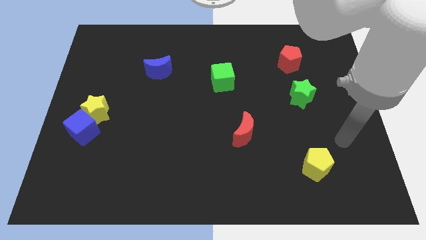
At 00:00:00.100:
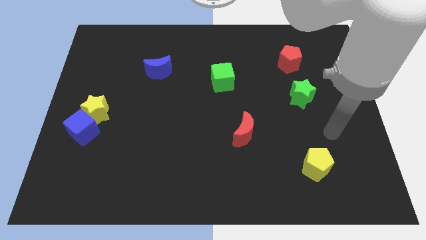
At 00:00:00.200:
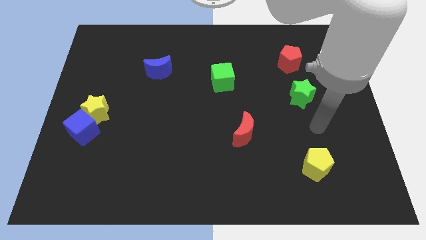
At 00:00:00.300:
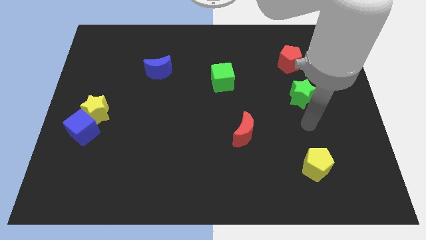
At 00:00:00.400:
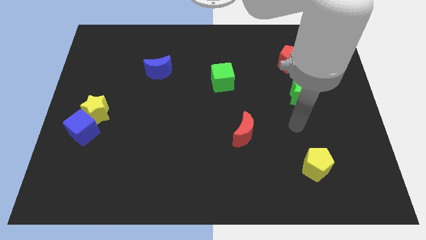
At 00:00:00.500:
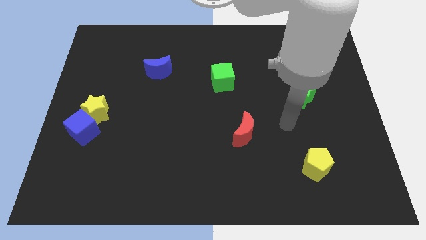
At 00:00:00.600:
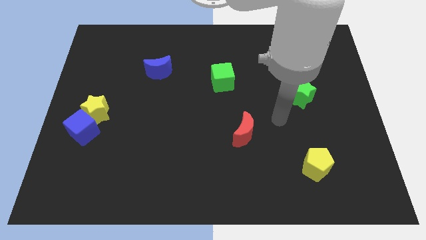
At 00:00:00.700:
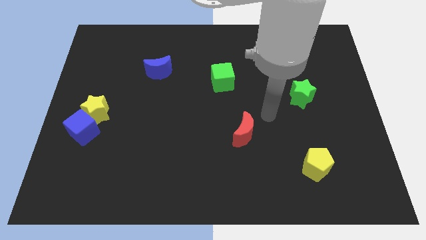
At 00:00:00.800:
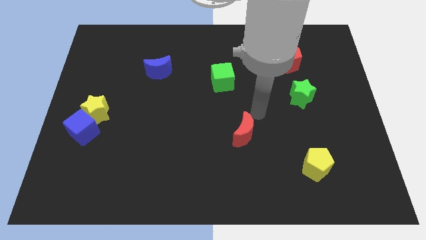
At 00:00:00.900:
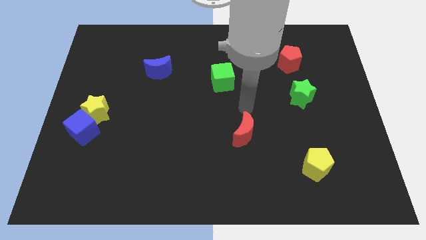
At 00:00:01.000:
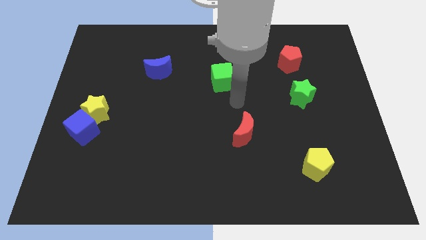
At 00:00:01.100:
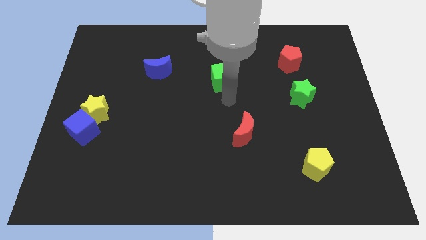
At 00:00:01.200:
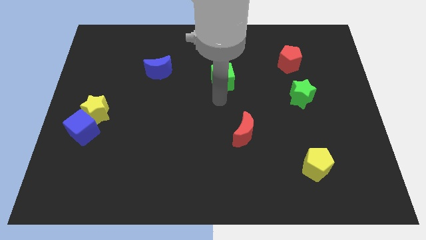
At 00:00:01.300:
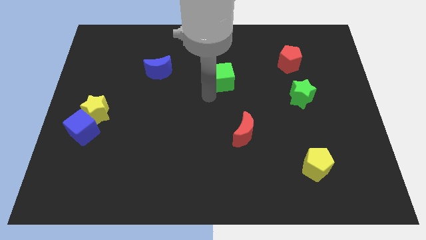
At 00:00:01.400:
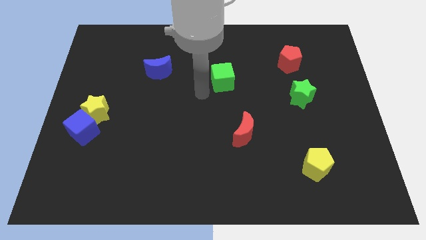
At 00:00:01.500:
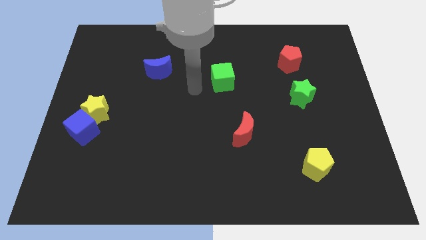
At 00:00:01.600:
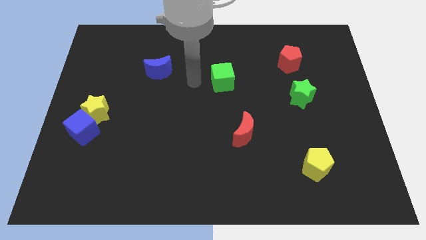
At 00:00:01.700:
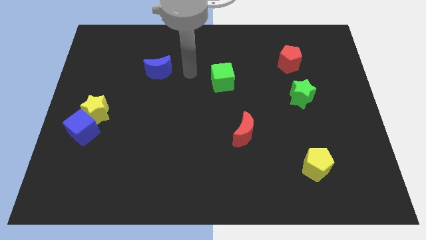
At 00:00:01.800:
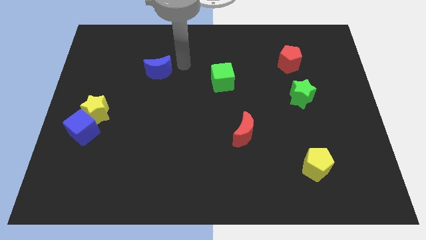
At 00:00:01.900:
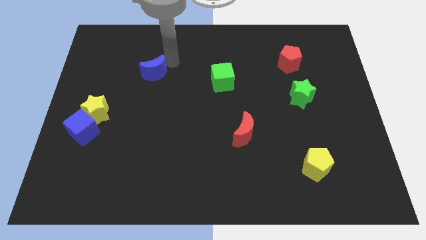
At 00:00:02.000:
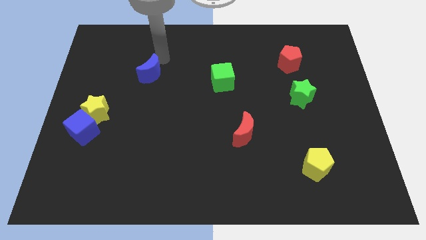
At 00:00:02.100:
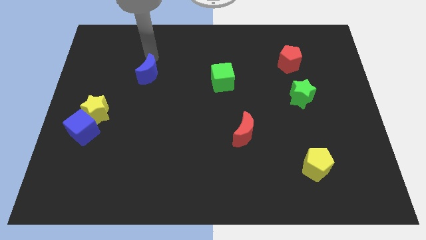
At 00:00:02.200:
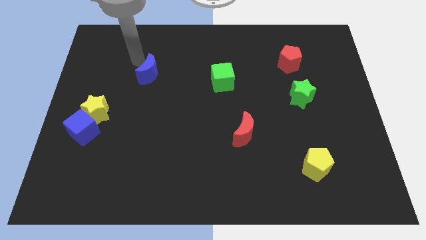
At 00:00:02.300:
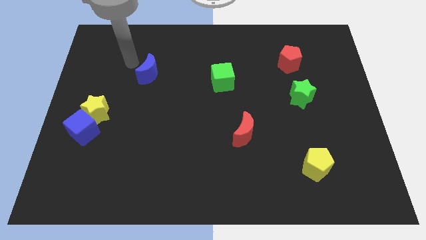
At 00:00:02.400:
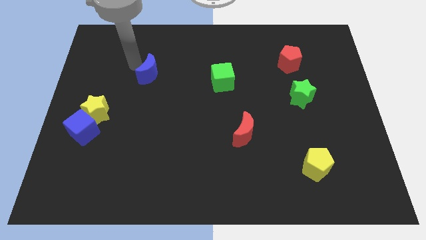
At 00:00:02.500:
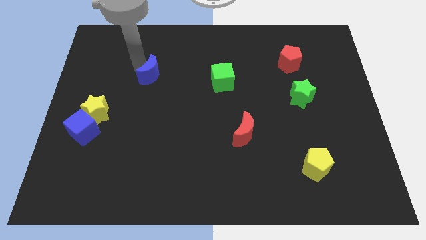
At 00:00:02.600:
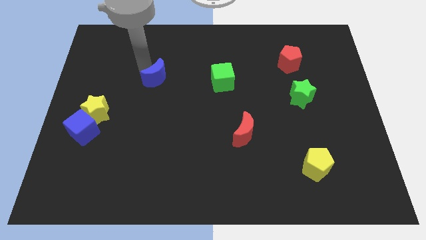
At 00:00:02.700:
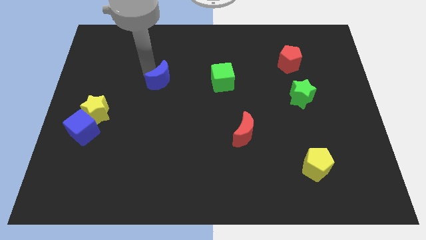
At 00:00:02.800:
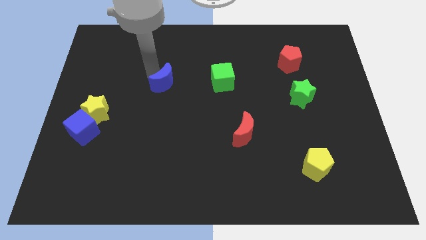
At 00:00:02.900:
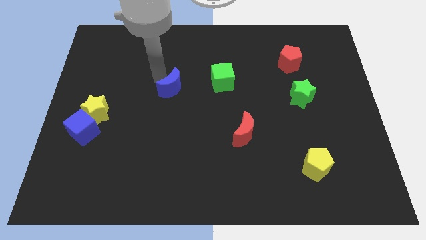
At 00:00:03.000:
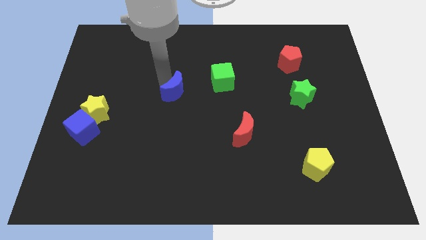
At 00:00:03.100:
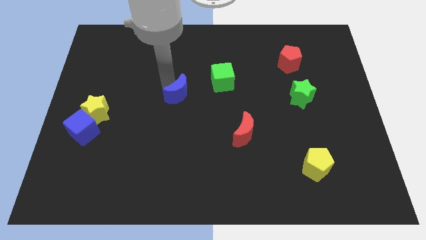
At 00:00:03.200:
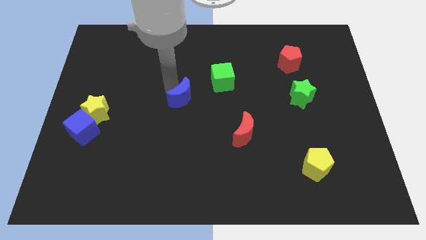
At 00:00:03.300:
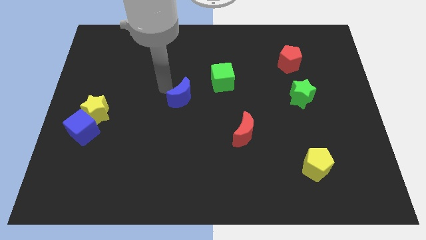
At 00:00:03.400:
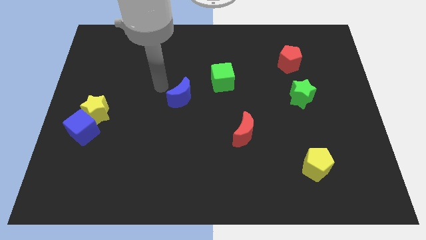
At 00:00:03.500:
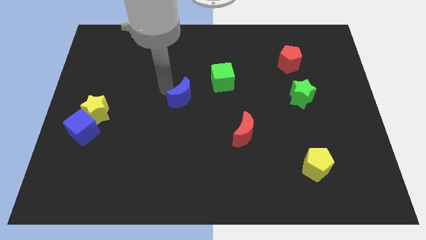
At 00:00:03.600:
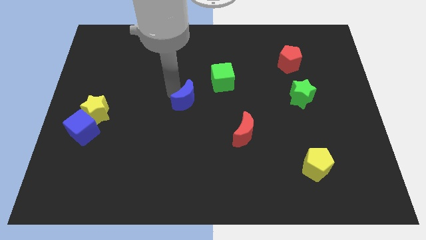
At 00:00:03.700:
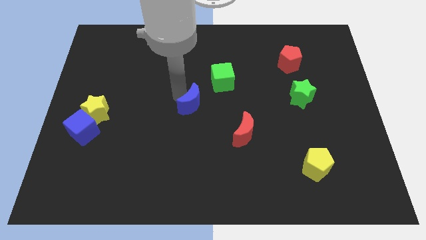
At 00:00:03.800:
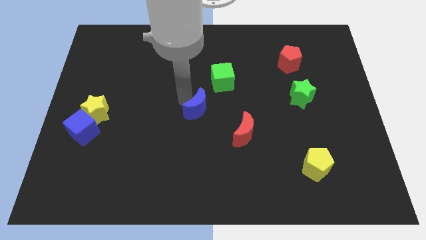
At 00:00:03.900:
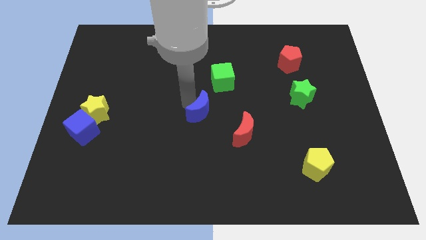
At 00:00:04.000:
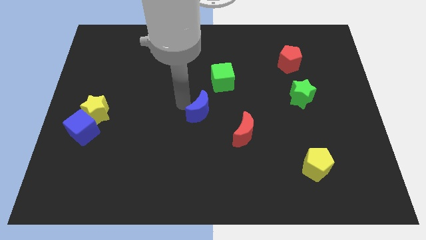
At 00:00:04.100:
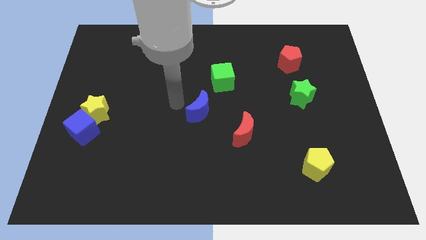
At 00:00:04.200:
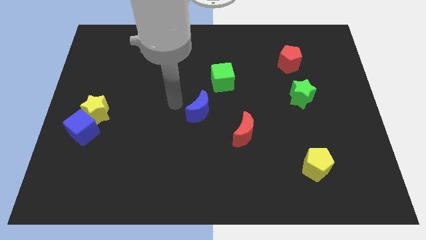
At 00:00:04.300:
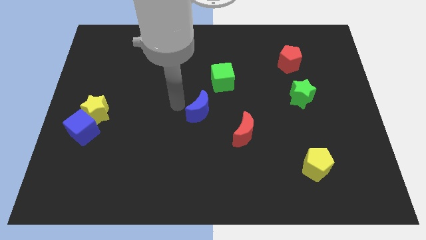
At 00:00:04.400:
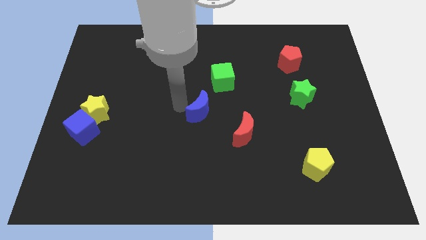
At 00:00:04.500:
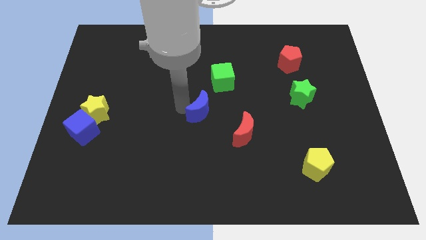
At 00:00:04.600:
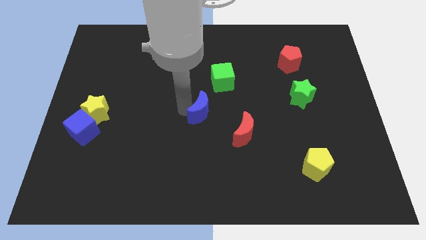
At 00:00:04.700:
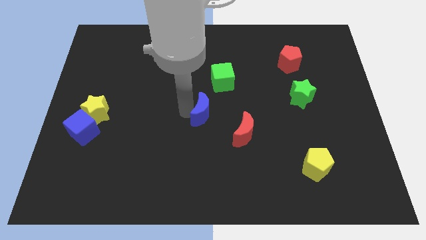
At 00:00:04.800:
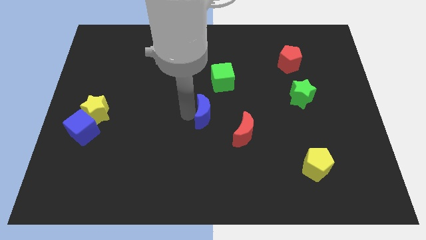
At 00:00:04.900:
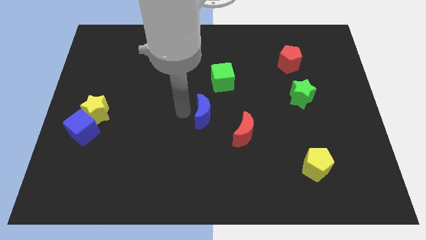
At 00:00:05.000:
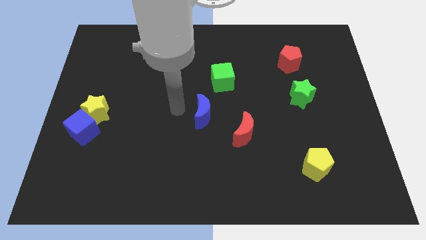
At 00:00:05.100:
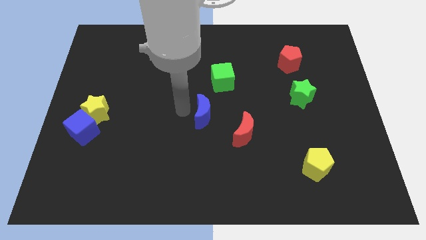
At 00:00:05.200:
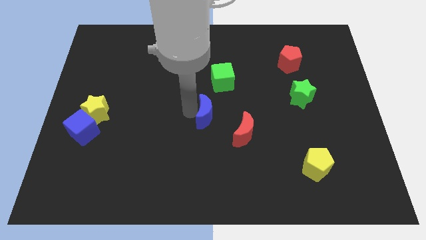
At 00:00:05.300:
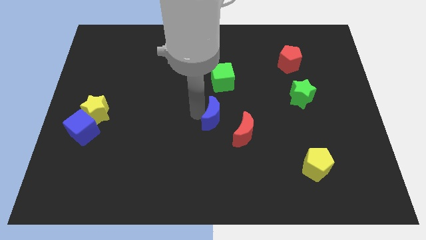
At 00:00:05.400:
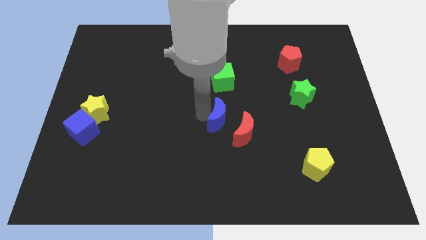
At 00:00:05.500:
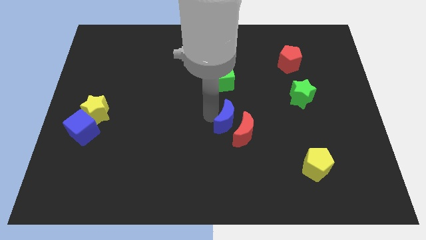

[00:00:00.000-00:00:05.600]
slide the blue moon close to the red moon

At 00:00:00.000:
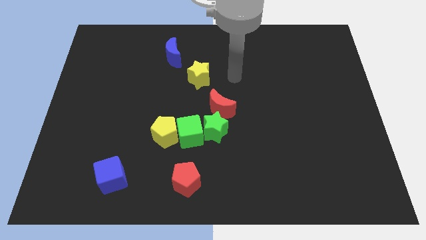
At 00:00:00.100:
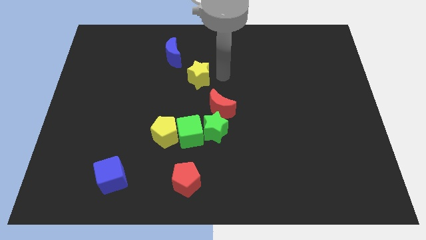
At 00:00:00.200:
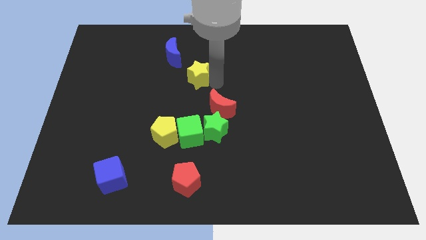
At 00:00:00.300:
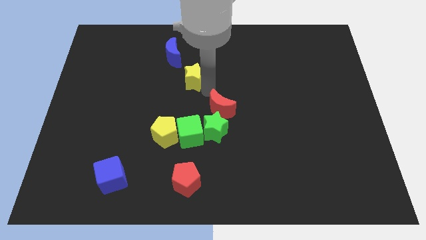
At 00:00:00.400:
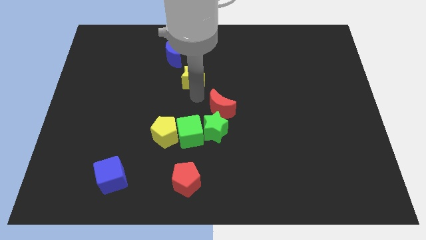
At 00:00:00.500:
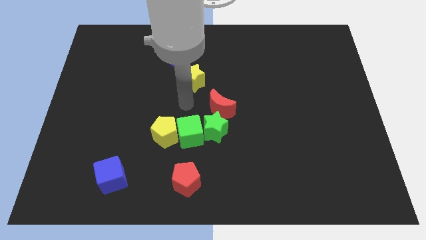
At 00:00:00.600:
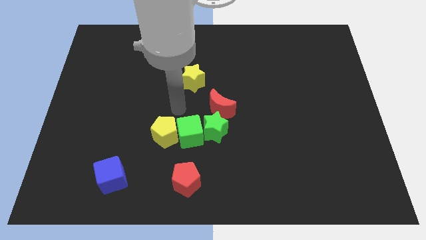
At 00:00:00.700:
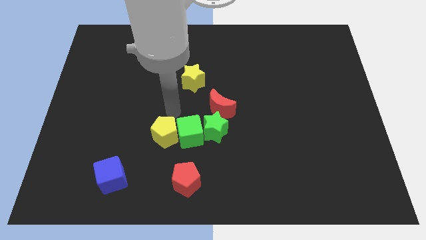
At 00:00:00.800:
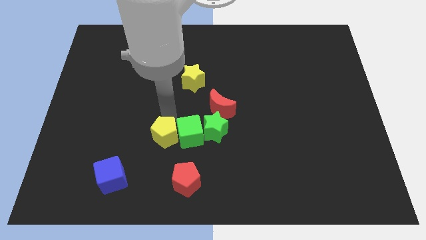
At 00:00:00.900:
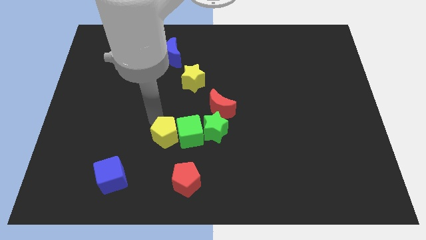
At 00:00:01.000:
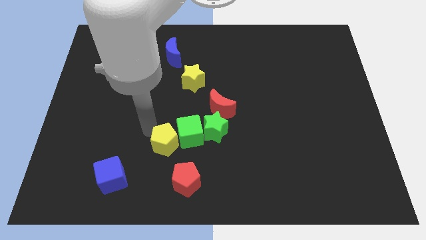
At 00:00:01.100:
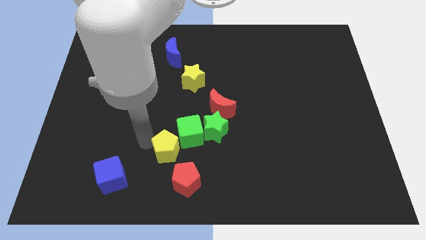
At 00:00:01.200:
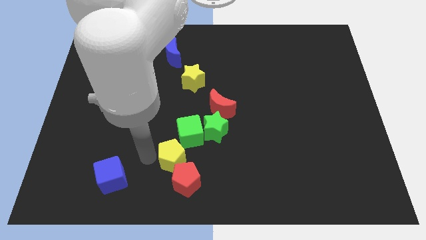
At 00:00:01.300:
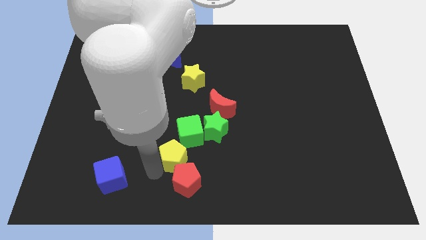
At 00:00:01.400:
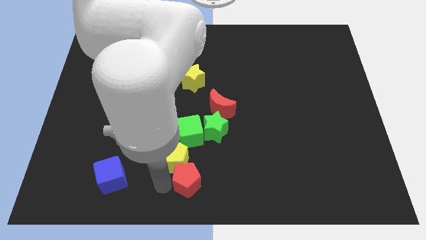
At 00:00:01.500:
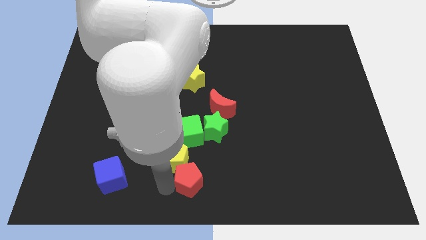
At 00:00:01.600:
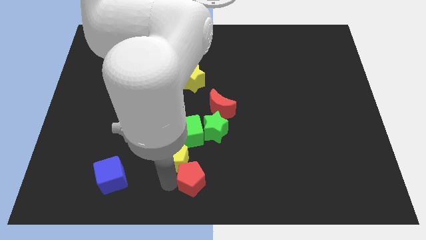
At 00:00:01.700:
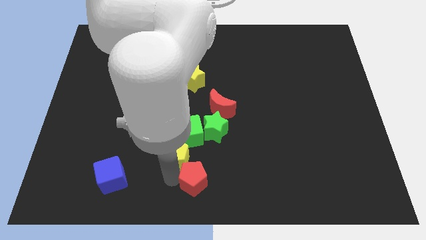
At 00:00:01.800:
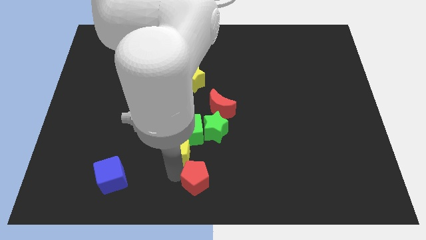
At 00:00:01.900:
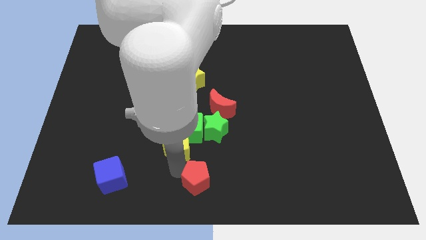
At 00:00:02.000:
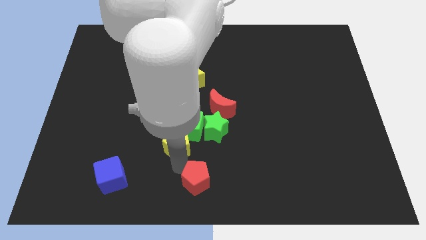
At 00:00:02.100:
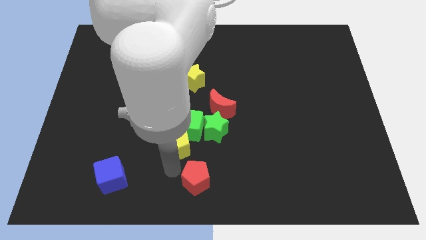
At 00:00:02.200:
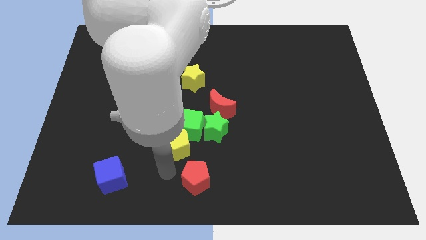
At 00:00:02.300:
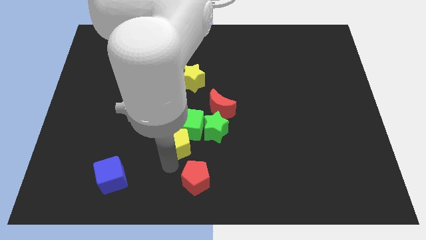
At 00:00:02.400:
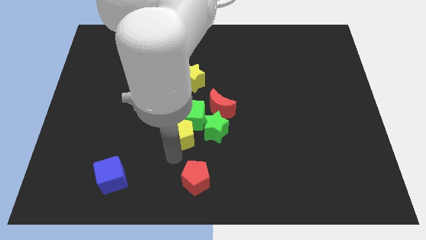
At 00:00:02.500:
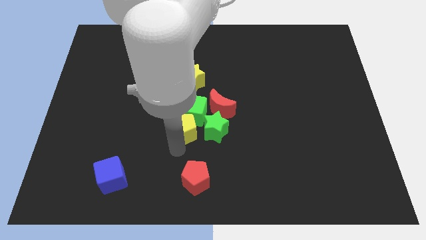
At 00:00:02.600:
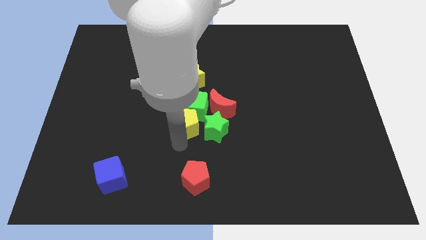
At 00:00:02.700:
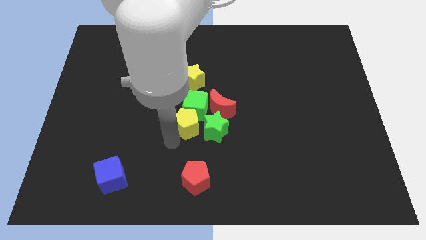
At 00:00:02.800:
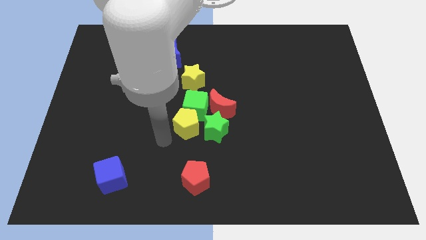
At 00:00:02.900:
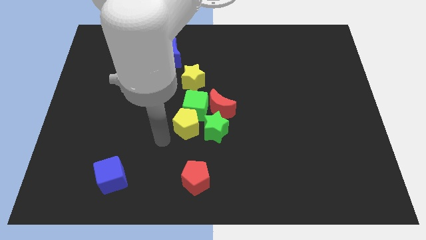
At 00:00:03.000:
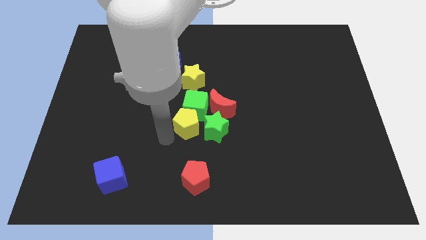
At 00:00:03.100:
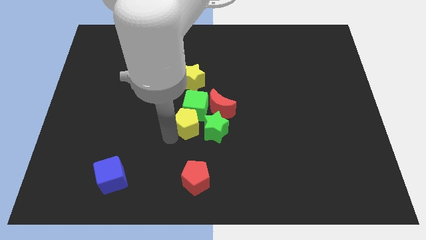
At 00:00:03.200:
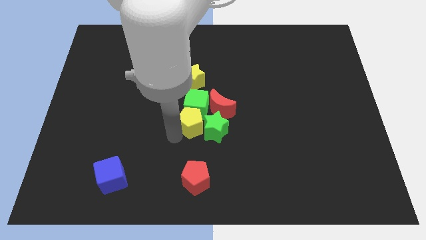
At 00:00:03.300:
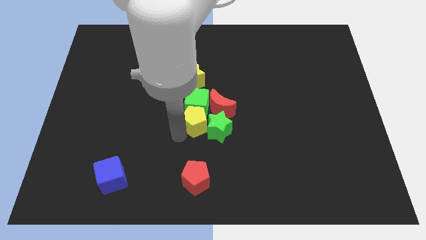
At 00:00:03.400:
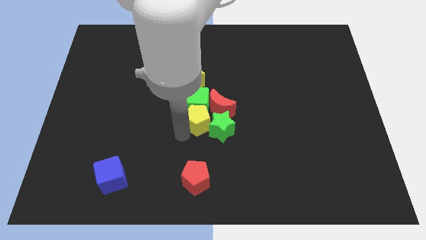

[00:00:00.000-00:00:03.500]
put the yellow pentagon to the red moon
